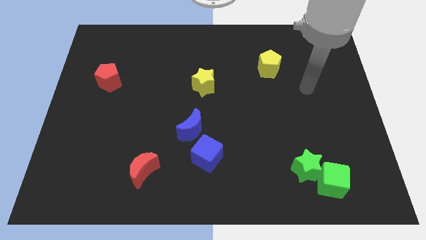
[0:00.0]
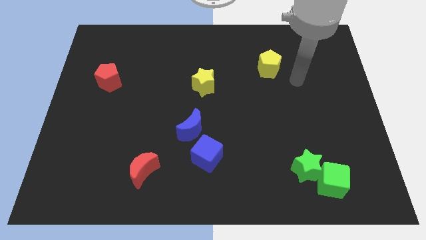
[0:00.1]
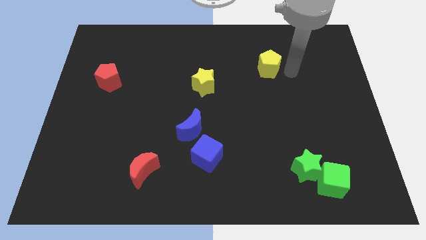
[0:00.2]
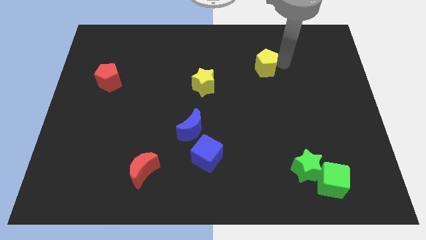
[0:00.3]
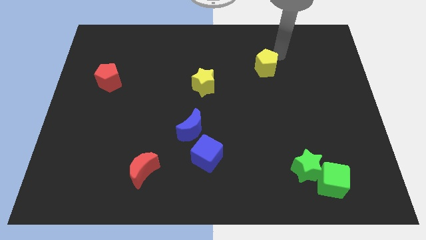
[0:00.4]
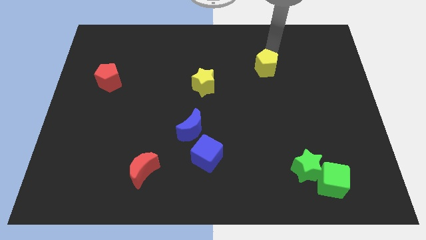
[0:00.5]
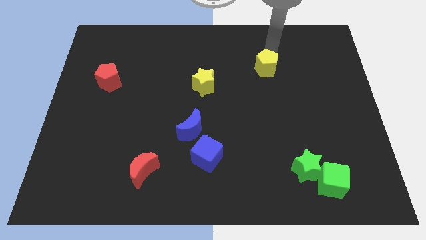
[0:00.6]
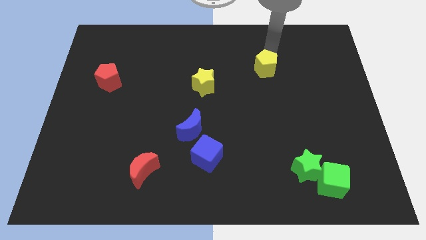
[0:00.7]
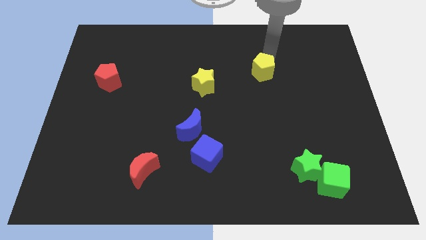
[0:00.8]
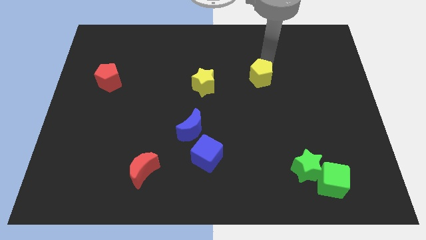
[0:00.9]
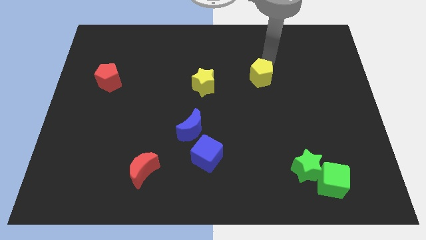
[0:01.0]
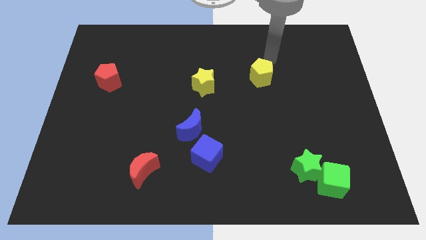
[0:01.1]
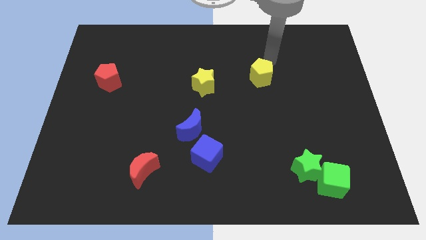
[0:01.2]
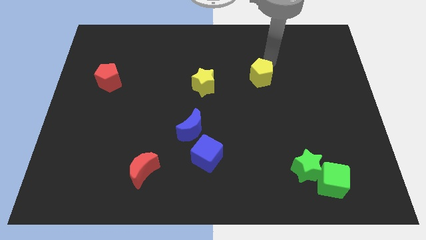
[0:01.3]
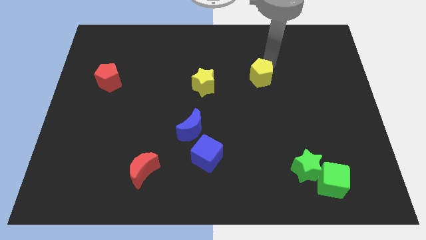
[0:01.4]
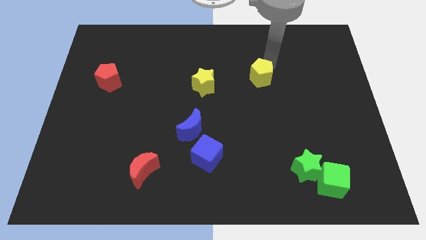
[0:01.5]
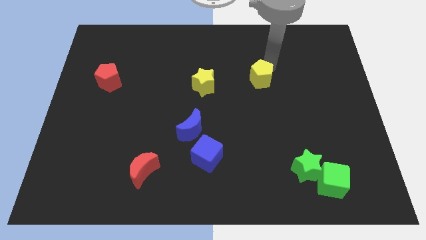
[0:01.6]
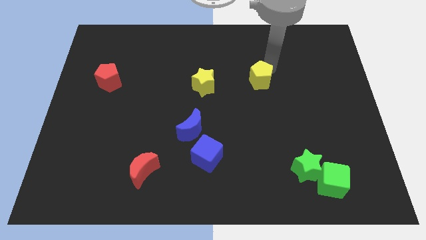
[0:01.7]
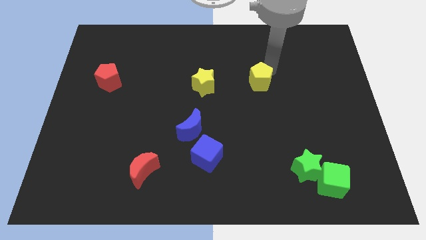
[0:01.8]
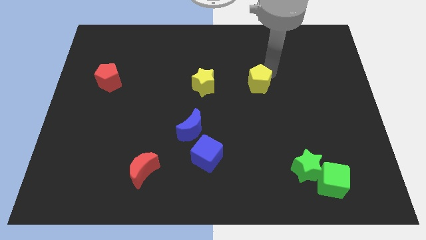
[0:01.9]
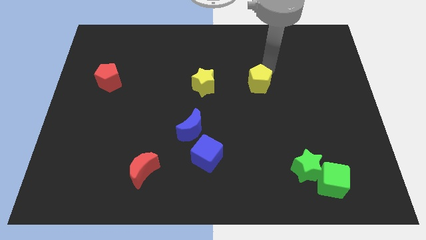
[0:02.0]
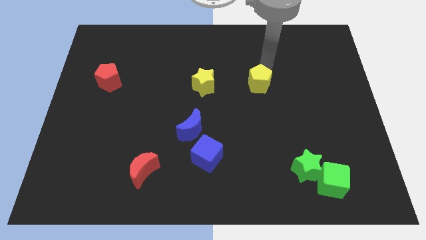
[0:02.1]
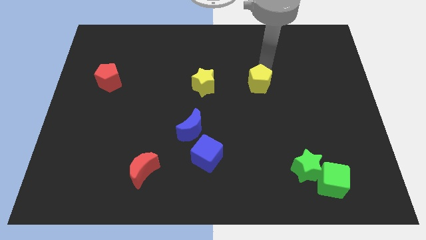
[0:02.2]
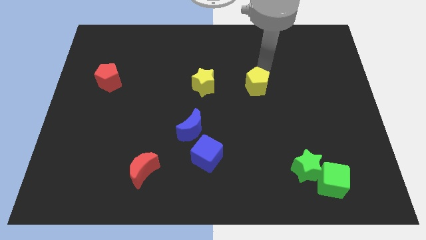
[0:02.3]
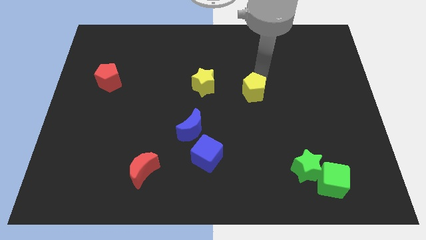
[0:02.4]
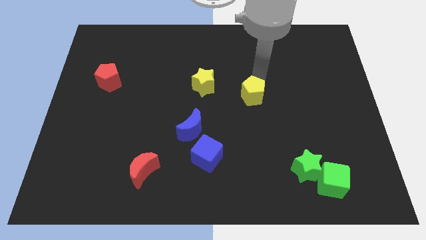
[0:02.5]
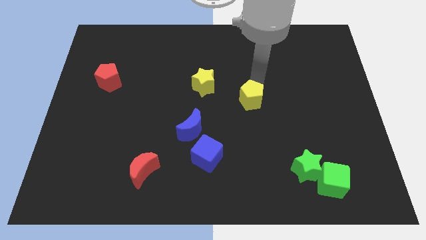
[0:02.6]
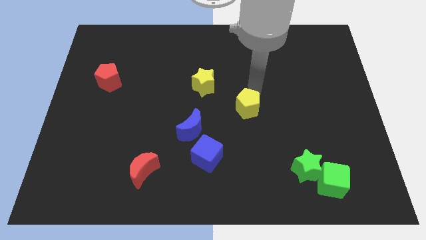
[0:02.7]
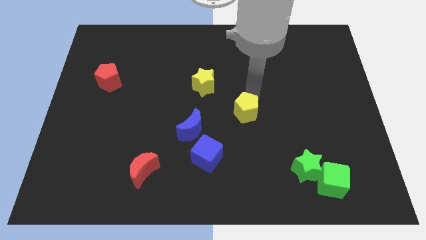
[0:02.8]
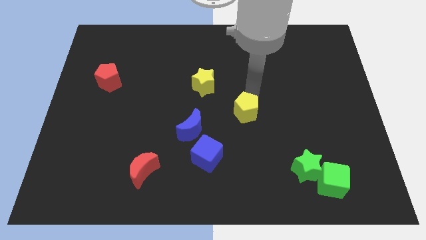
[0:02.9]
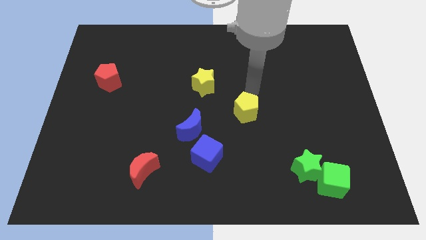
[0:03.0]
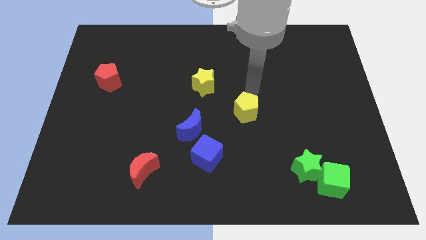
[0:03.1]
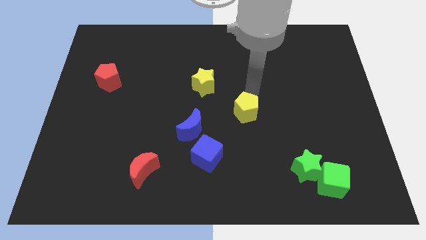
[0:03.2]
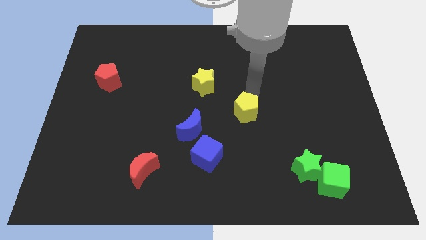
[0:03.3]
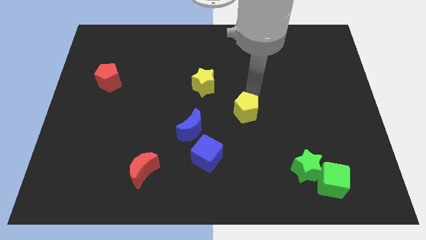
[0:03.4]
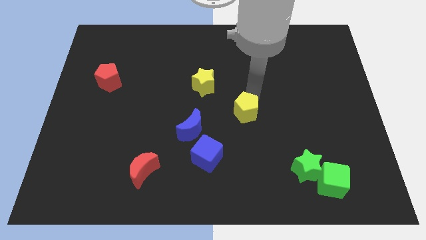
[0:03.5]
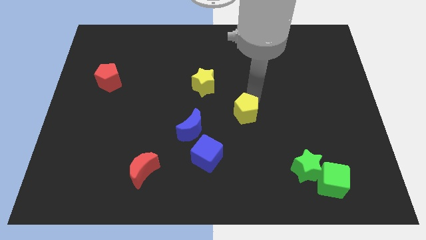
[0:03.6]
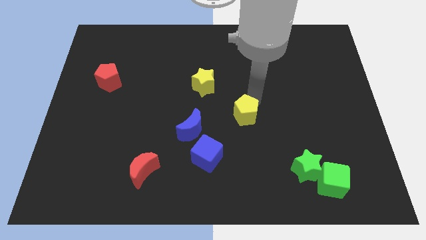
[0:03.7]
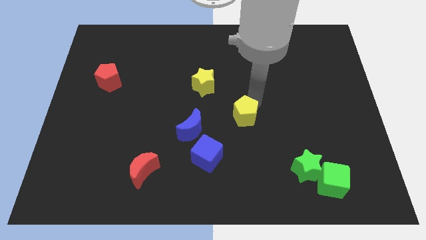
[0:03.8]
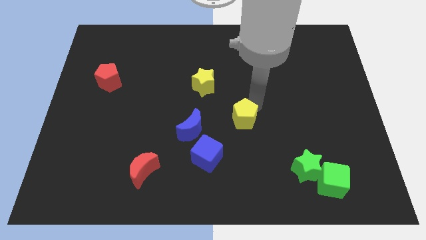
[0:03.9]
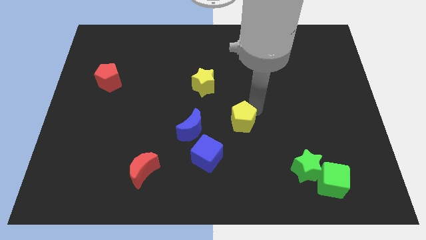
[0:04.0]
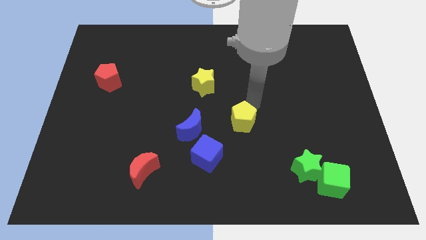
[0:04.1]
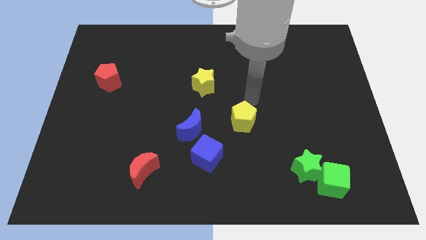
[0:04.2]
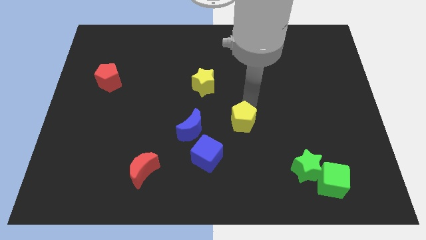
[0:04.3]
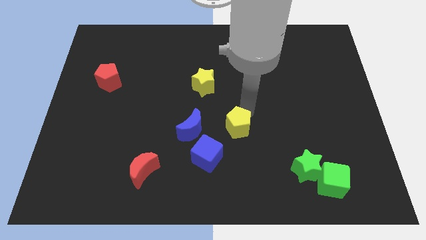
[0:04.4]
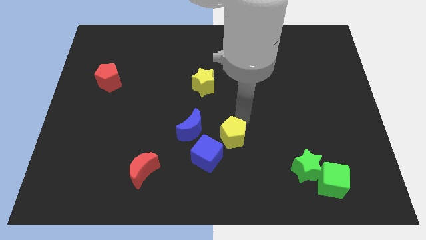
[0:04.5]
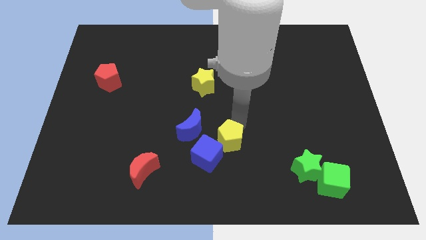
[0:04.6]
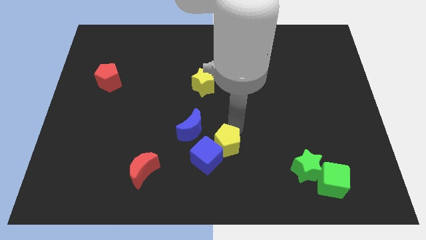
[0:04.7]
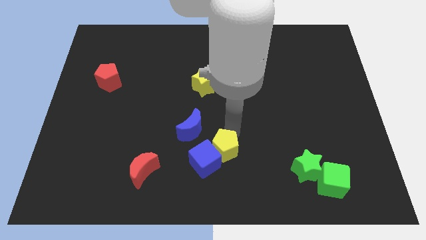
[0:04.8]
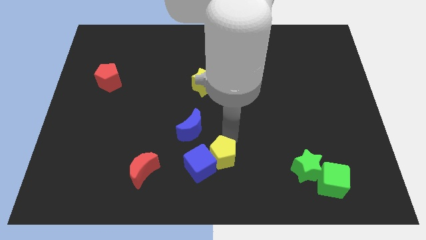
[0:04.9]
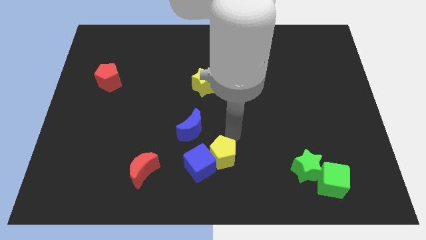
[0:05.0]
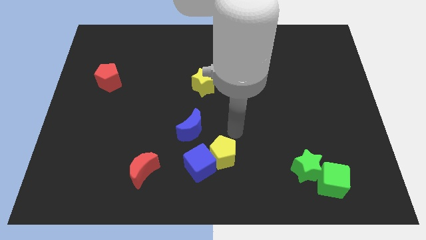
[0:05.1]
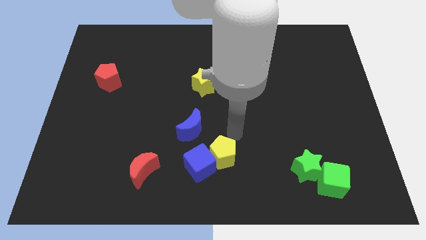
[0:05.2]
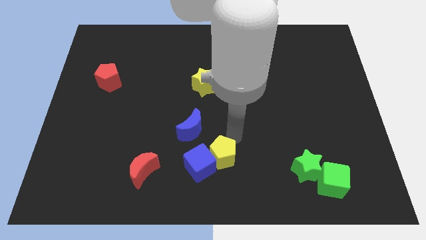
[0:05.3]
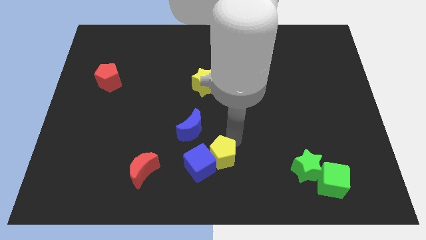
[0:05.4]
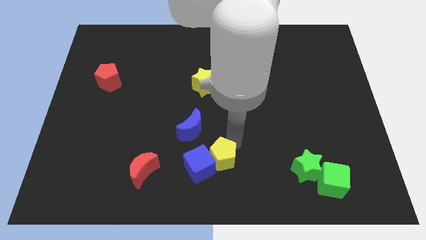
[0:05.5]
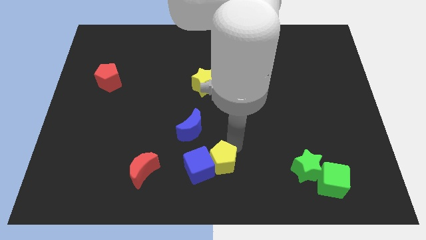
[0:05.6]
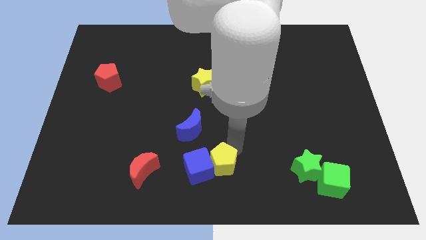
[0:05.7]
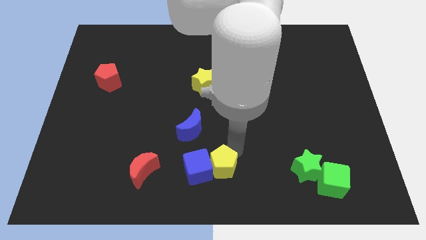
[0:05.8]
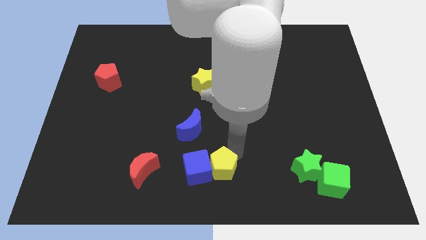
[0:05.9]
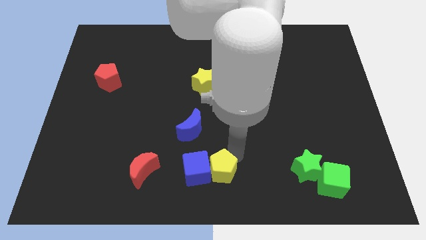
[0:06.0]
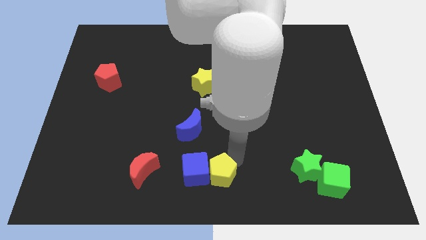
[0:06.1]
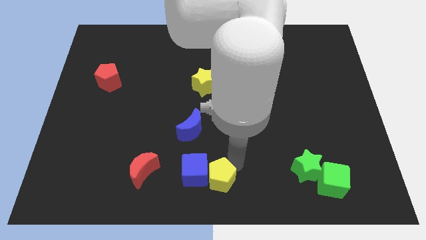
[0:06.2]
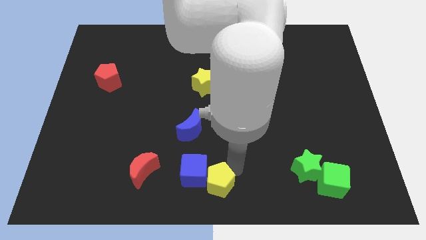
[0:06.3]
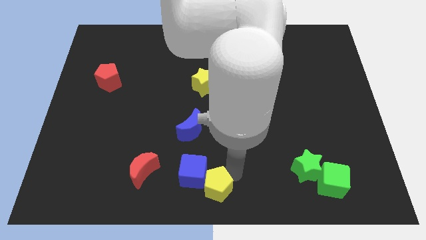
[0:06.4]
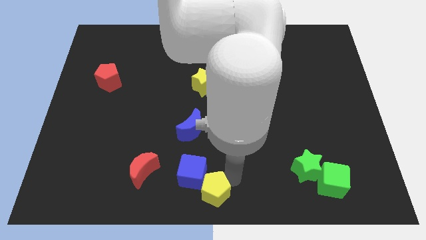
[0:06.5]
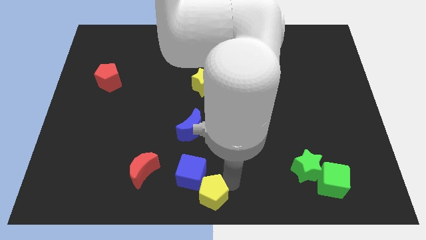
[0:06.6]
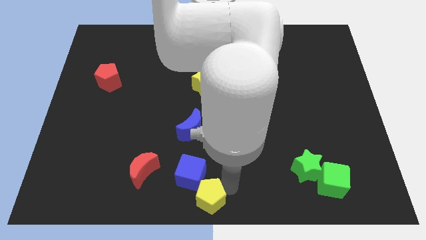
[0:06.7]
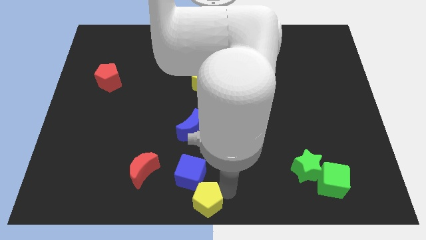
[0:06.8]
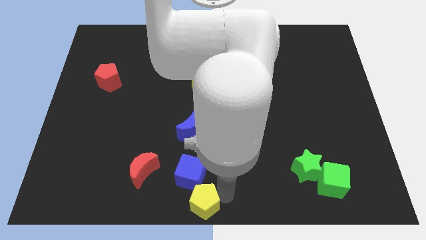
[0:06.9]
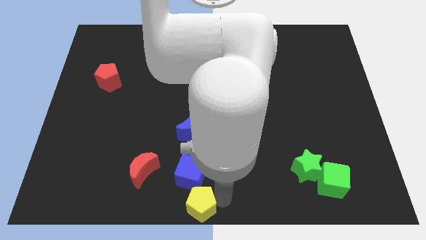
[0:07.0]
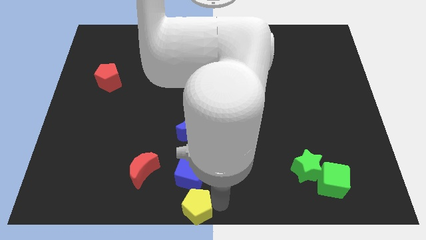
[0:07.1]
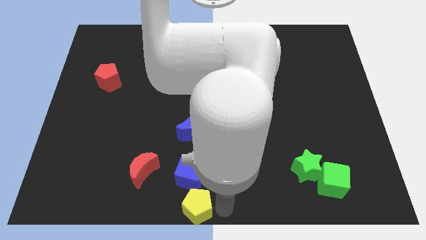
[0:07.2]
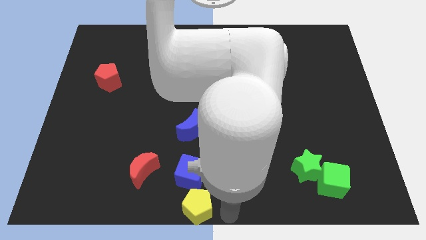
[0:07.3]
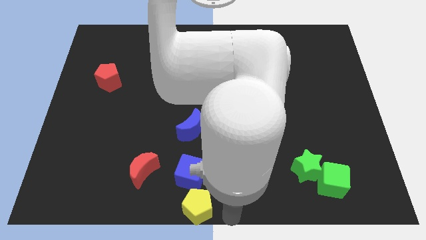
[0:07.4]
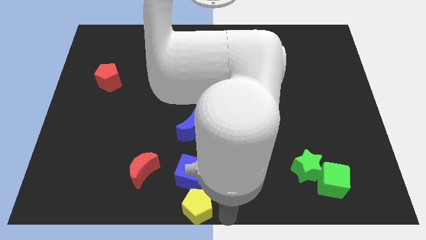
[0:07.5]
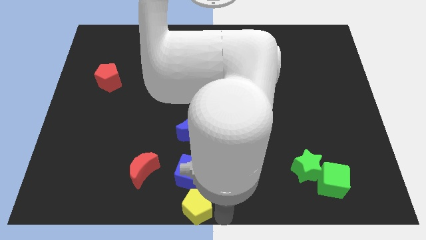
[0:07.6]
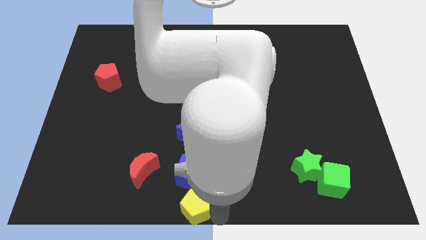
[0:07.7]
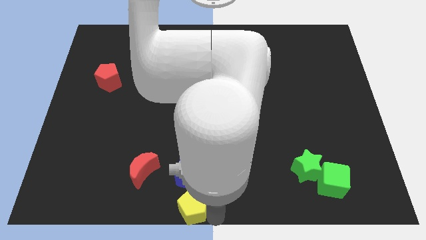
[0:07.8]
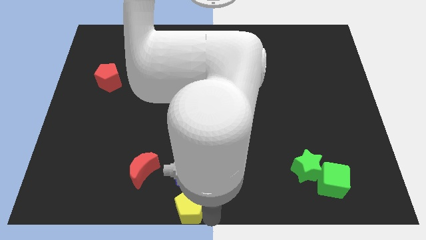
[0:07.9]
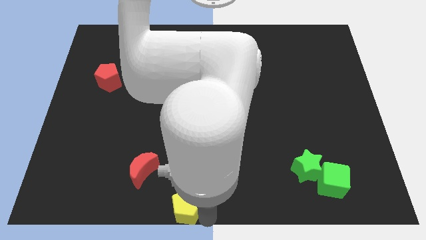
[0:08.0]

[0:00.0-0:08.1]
move the yellow pentagon to the bottom left of the blue cube
